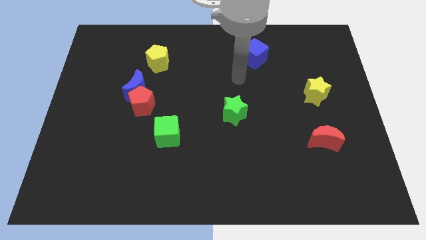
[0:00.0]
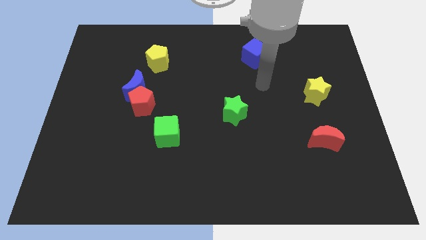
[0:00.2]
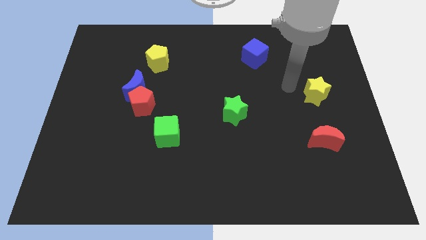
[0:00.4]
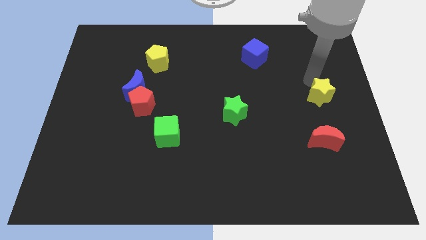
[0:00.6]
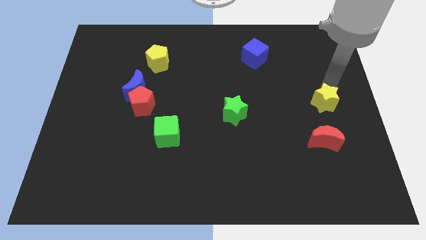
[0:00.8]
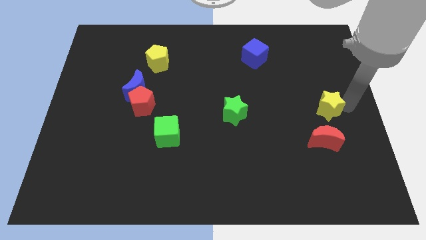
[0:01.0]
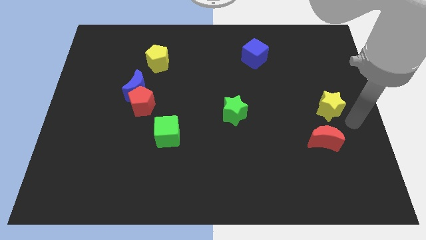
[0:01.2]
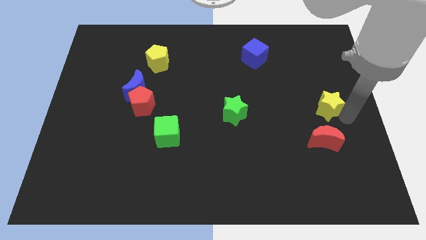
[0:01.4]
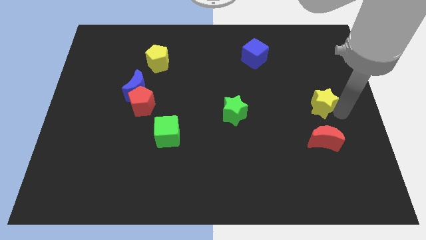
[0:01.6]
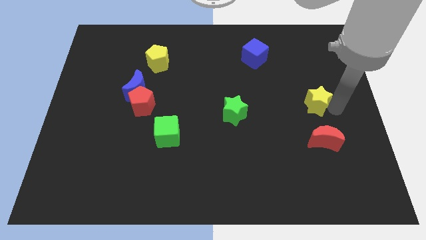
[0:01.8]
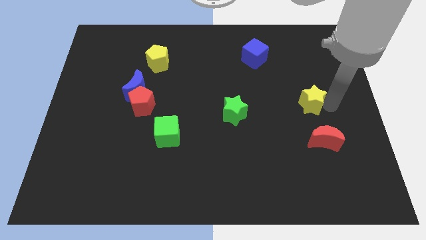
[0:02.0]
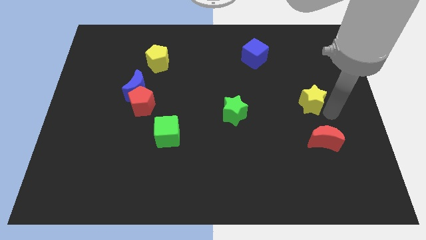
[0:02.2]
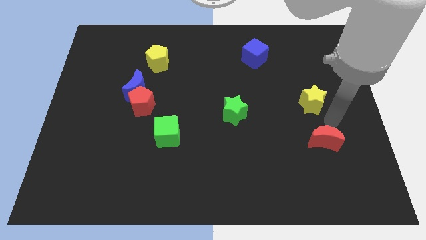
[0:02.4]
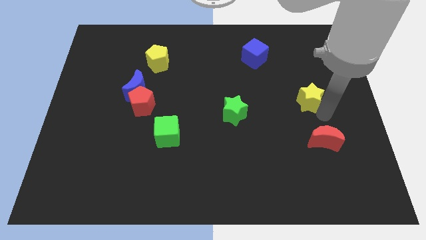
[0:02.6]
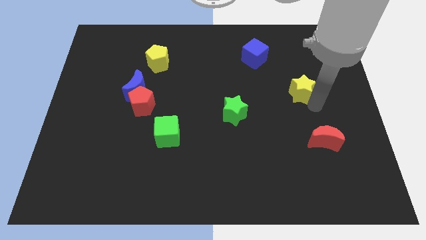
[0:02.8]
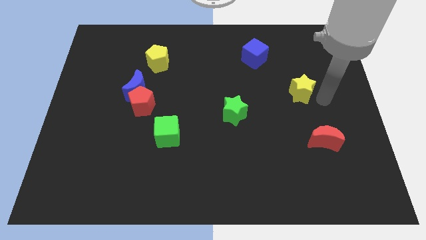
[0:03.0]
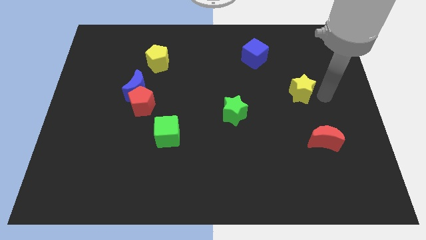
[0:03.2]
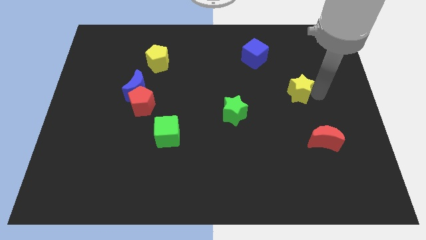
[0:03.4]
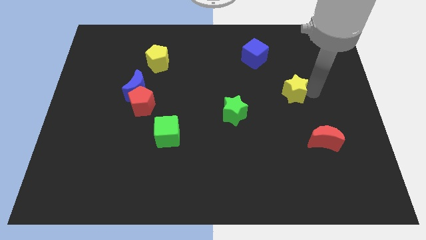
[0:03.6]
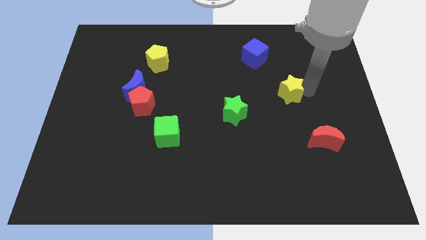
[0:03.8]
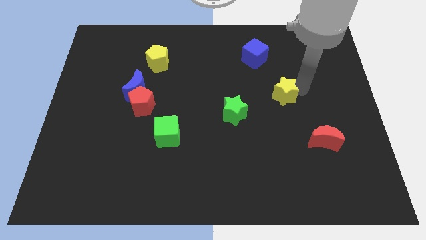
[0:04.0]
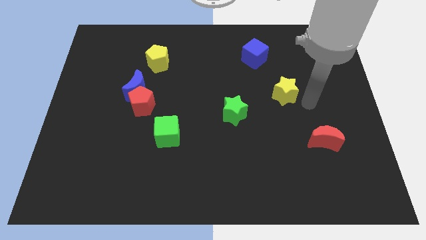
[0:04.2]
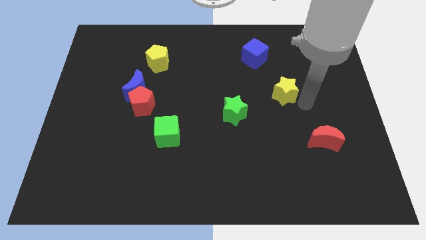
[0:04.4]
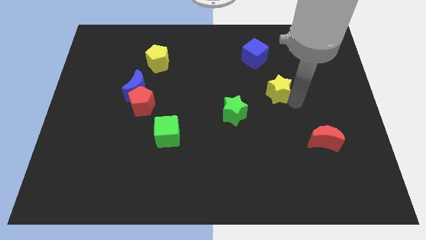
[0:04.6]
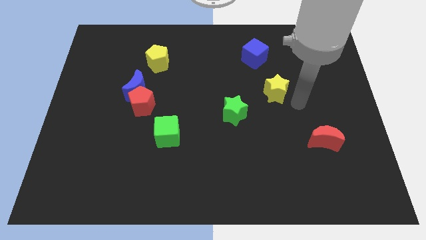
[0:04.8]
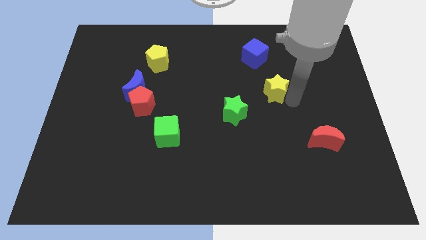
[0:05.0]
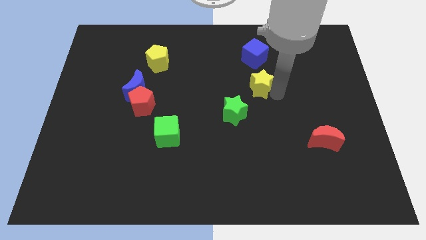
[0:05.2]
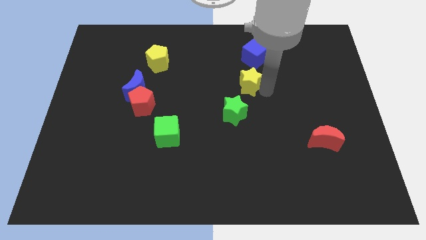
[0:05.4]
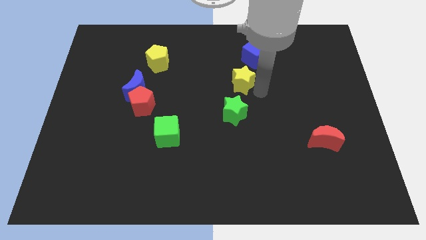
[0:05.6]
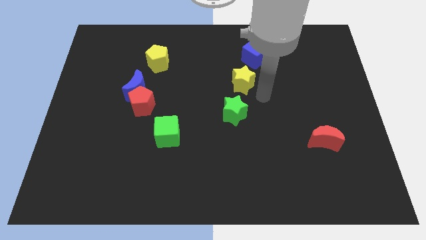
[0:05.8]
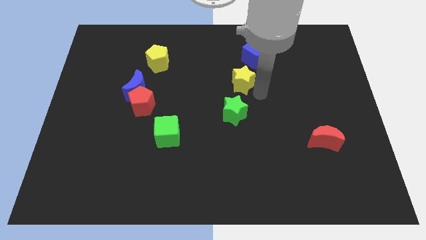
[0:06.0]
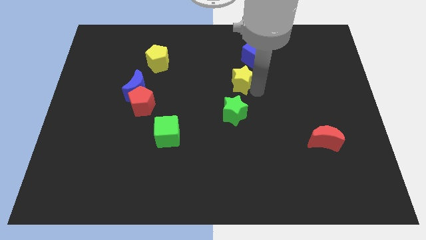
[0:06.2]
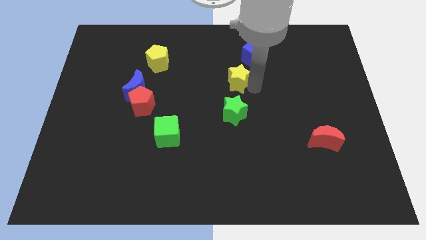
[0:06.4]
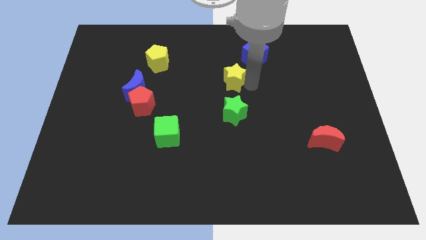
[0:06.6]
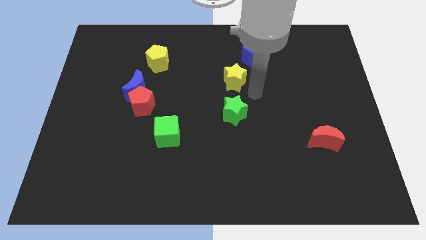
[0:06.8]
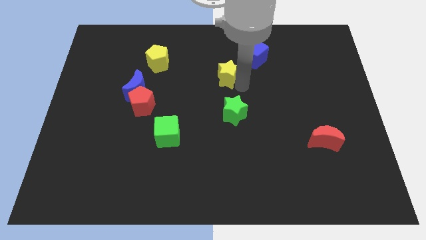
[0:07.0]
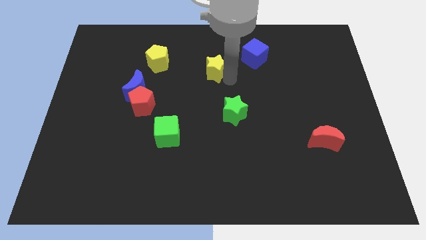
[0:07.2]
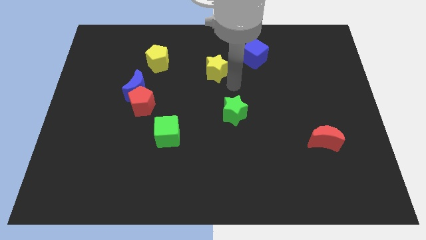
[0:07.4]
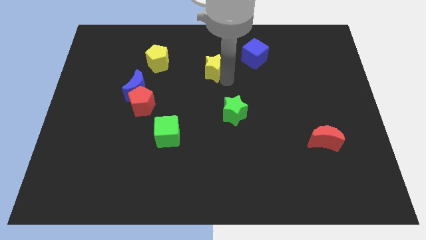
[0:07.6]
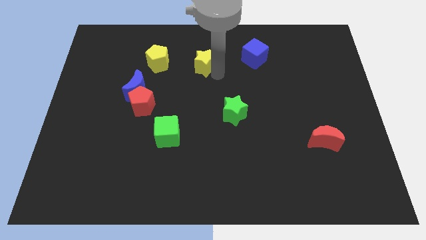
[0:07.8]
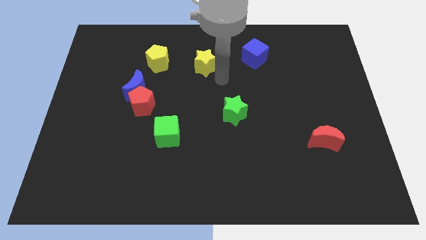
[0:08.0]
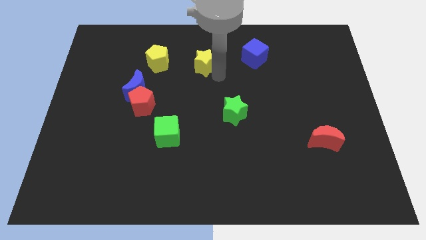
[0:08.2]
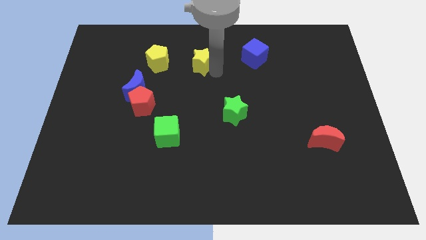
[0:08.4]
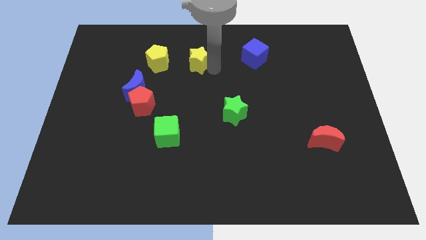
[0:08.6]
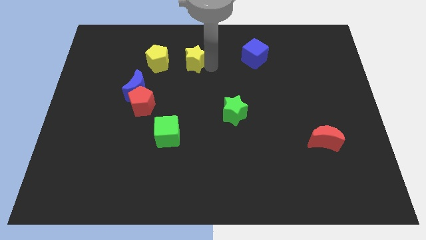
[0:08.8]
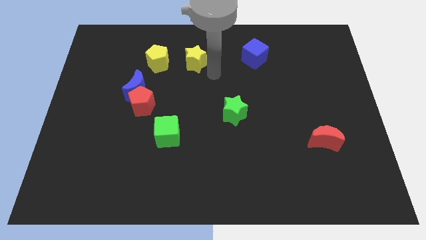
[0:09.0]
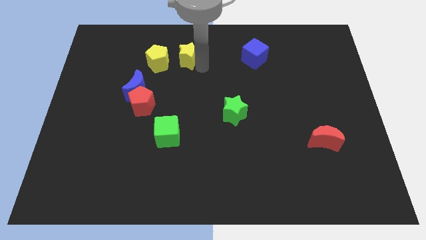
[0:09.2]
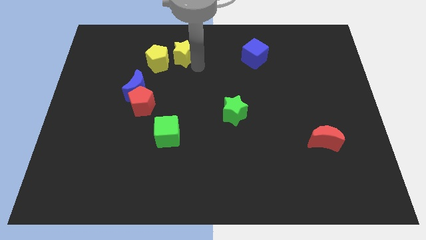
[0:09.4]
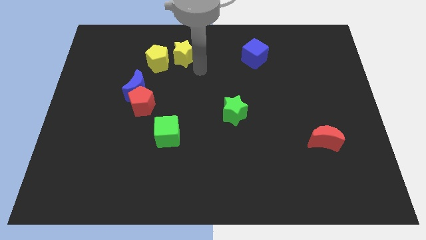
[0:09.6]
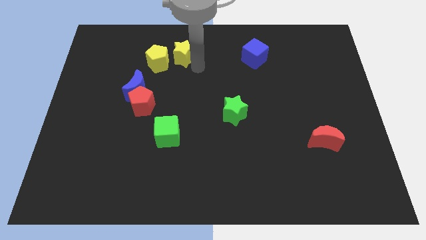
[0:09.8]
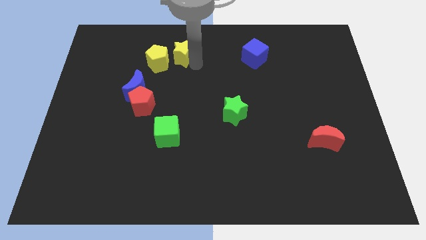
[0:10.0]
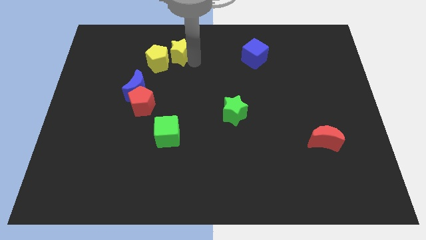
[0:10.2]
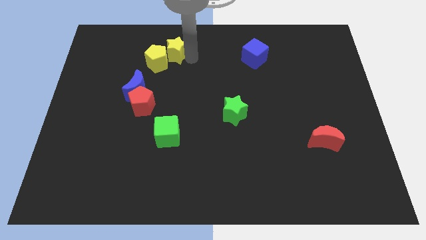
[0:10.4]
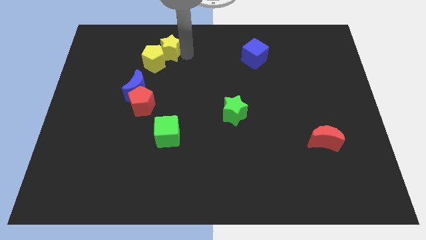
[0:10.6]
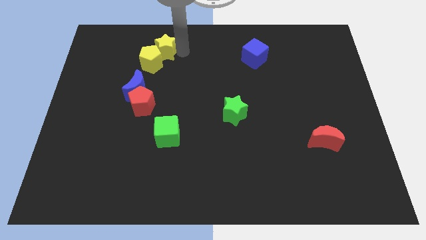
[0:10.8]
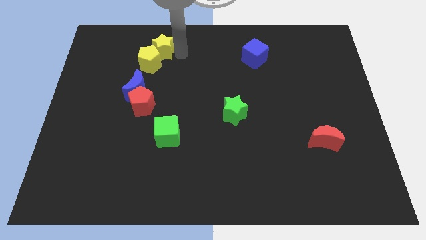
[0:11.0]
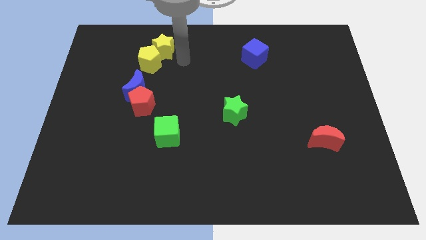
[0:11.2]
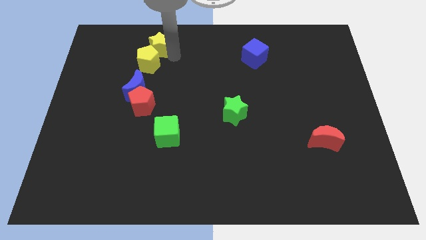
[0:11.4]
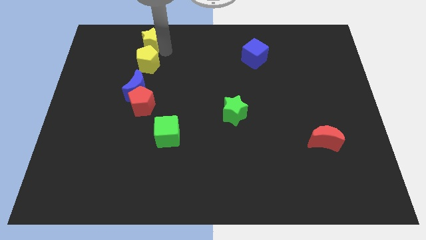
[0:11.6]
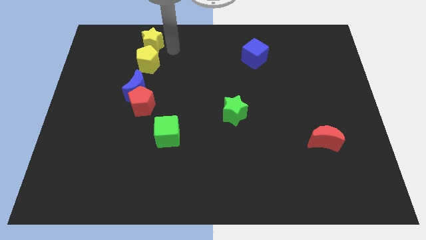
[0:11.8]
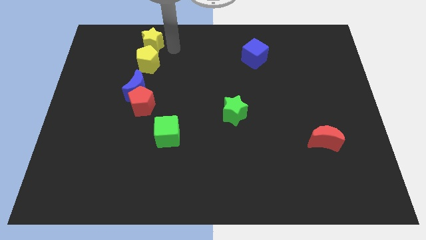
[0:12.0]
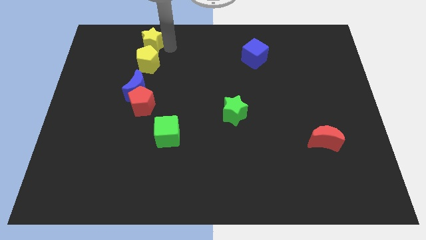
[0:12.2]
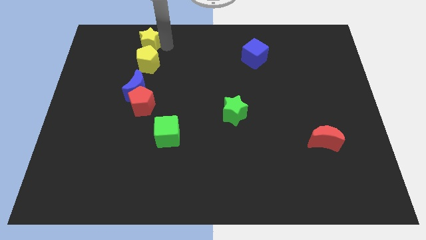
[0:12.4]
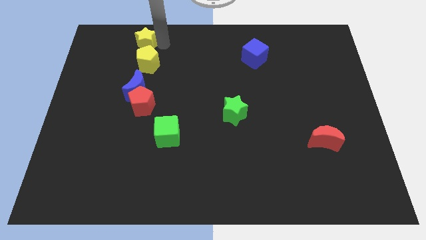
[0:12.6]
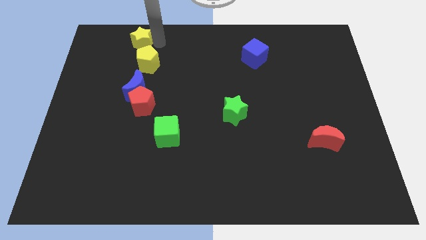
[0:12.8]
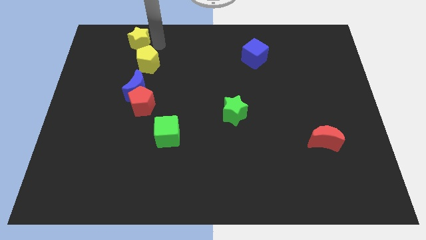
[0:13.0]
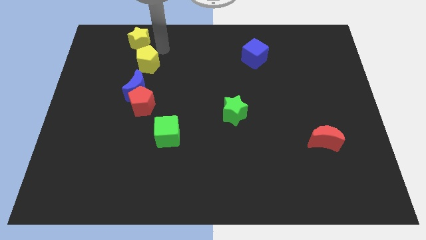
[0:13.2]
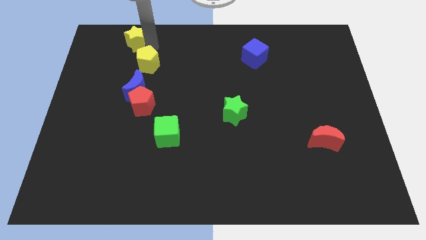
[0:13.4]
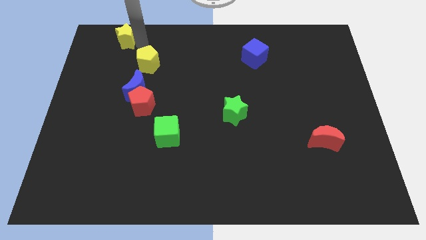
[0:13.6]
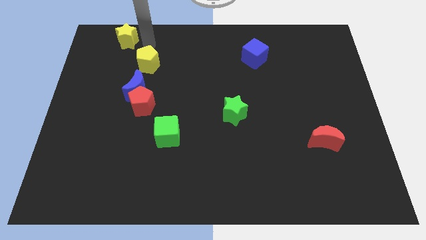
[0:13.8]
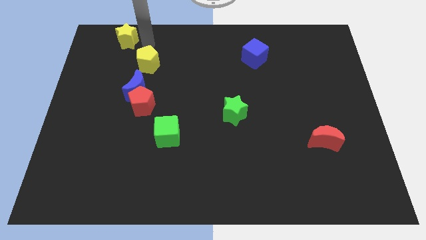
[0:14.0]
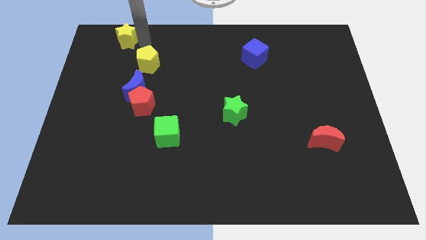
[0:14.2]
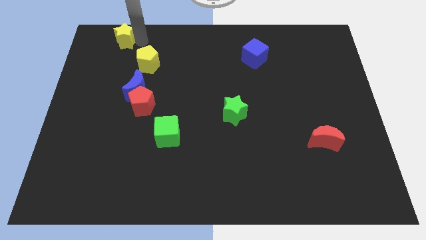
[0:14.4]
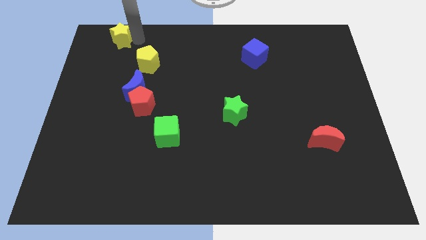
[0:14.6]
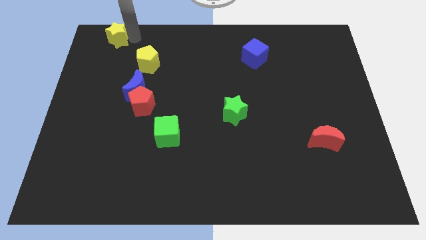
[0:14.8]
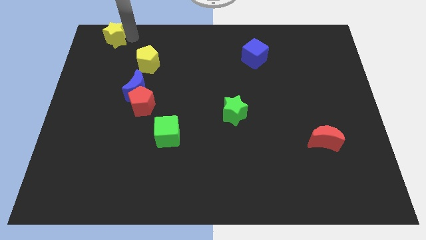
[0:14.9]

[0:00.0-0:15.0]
put the yellow star to the top left of the board
